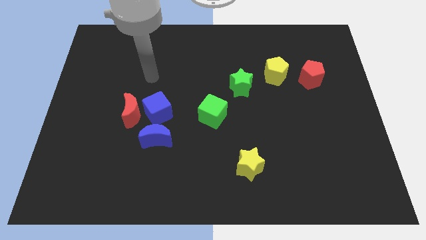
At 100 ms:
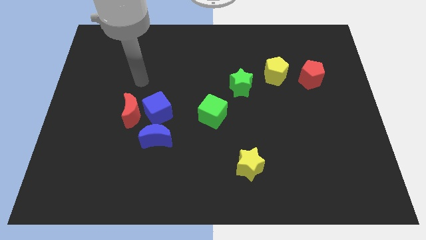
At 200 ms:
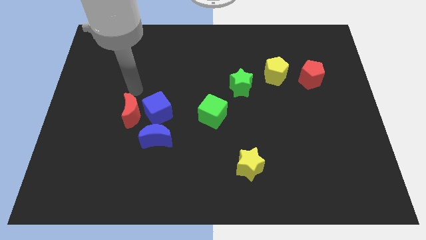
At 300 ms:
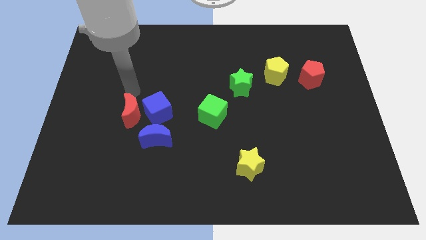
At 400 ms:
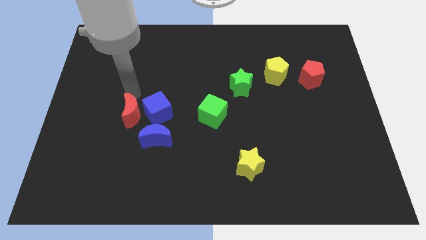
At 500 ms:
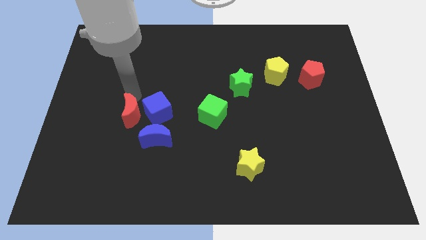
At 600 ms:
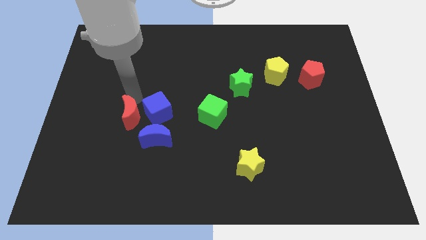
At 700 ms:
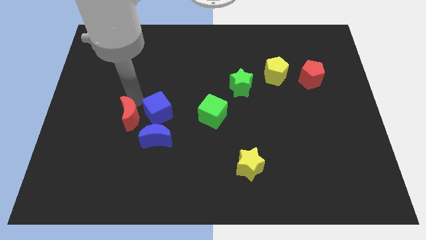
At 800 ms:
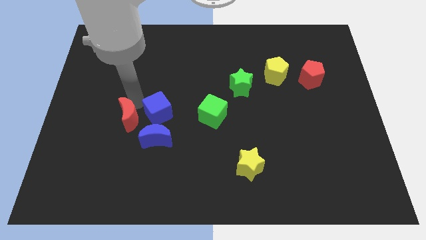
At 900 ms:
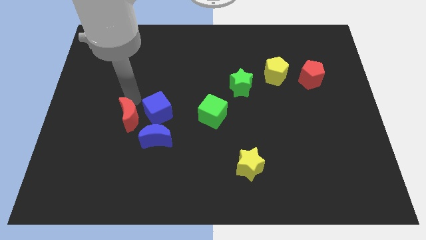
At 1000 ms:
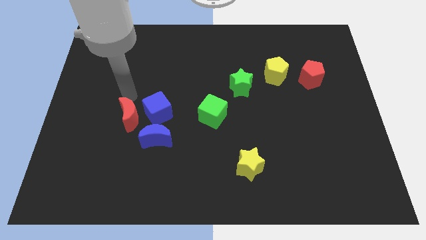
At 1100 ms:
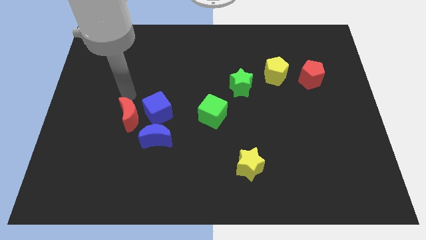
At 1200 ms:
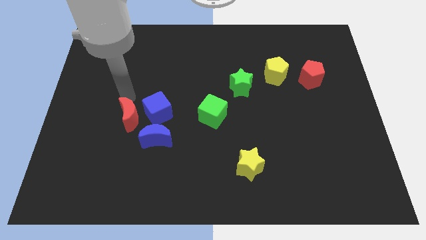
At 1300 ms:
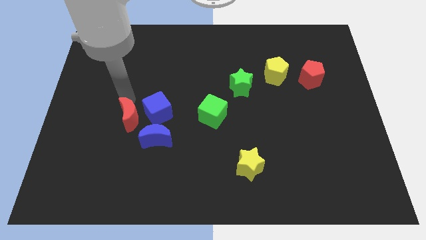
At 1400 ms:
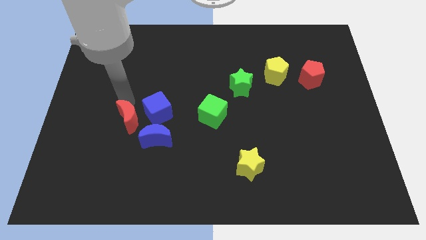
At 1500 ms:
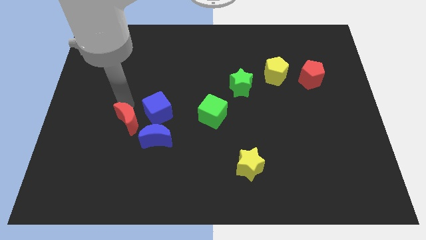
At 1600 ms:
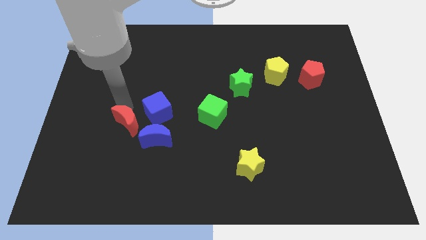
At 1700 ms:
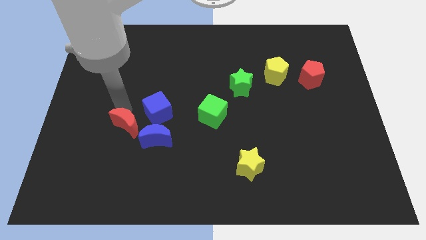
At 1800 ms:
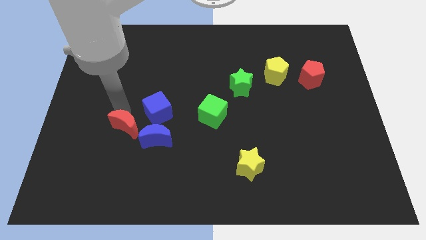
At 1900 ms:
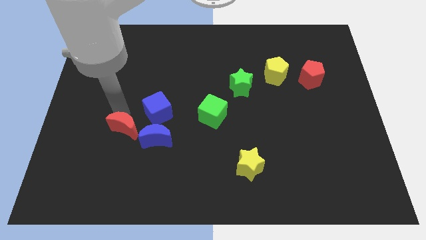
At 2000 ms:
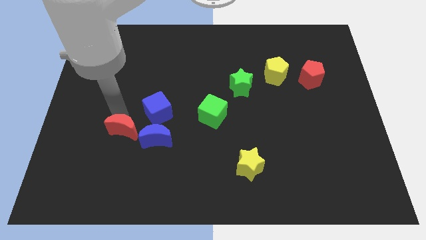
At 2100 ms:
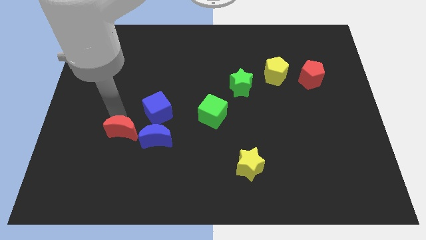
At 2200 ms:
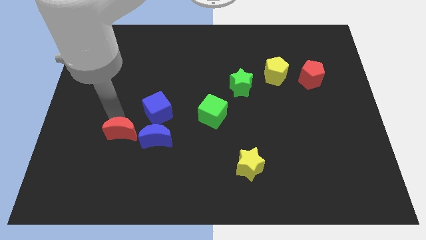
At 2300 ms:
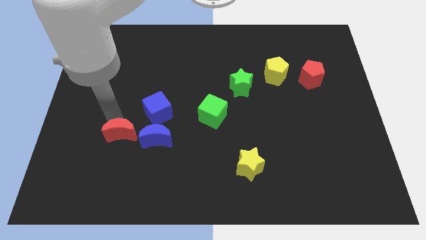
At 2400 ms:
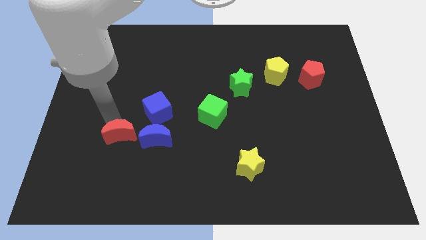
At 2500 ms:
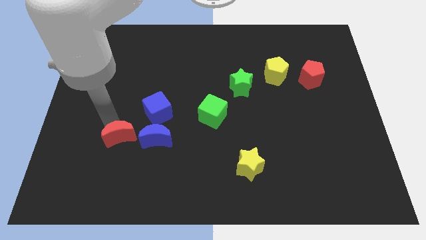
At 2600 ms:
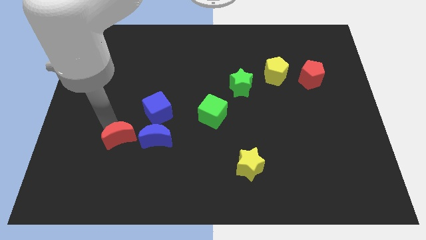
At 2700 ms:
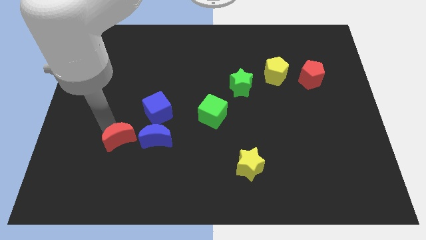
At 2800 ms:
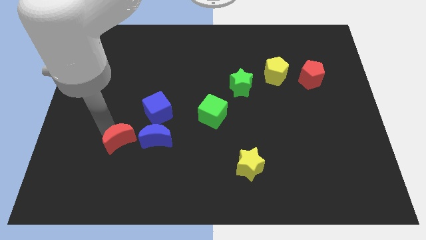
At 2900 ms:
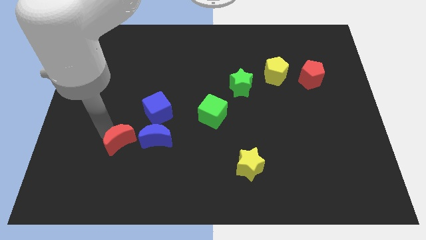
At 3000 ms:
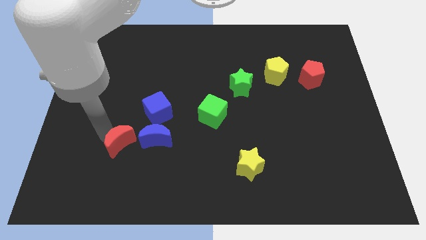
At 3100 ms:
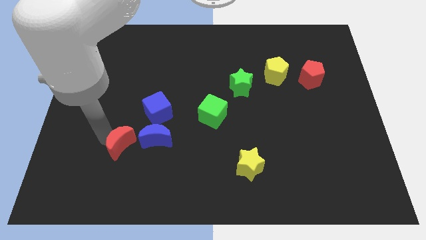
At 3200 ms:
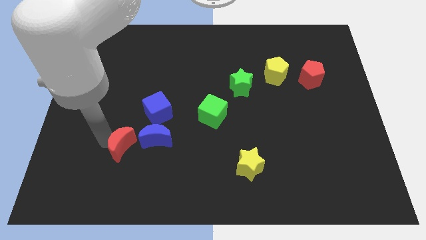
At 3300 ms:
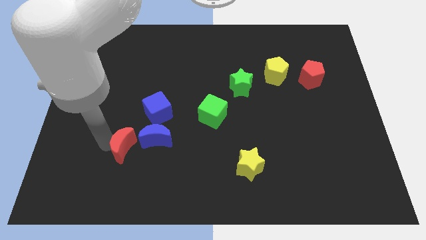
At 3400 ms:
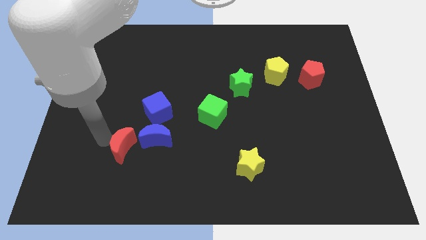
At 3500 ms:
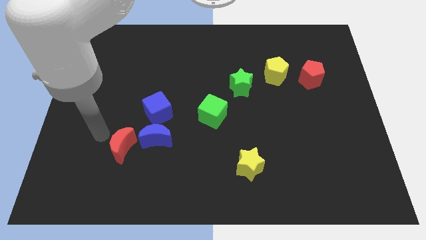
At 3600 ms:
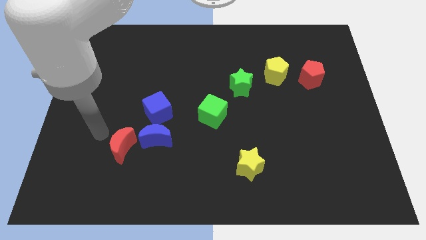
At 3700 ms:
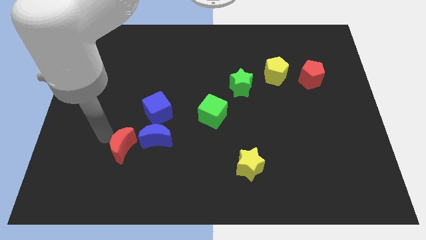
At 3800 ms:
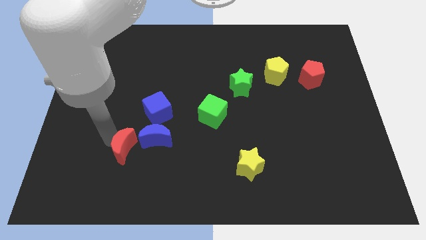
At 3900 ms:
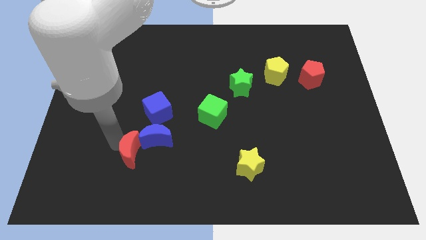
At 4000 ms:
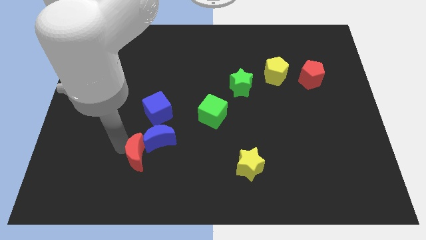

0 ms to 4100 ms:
slide the red moon diagonally downwards and right a little

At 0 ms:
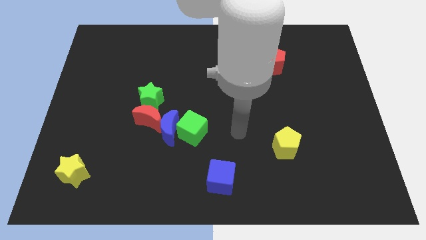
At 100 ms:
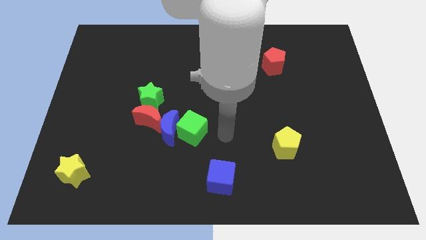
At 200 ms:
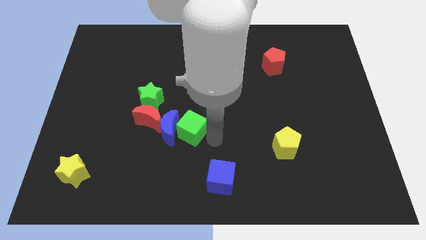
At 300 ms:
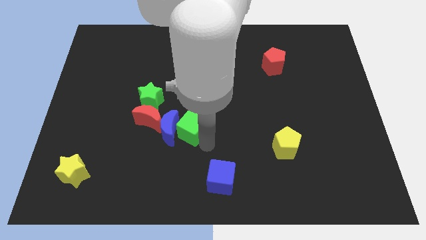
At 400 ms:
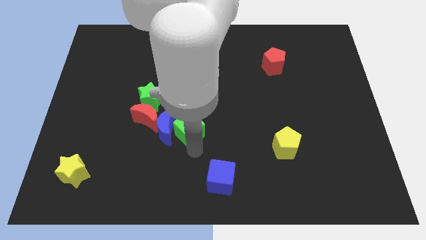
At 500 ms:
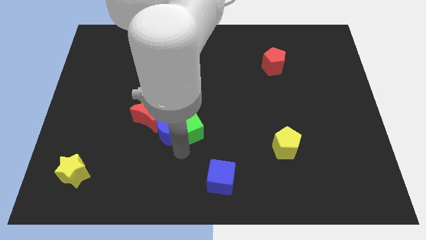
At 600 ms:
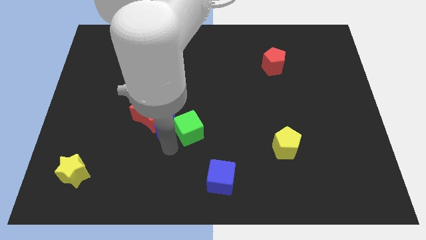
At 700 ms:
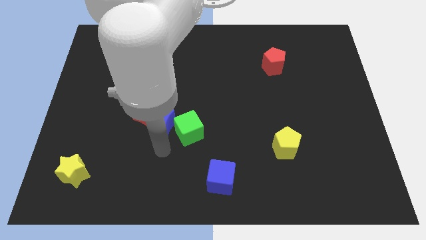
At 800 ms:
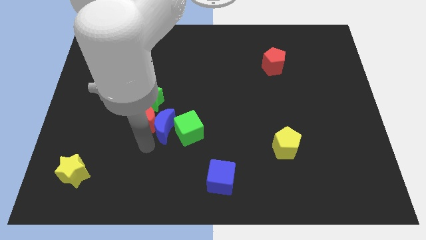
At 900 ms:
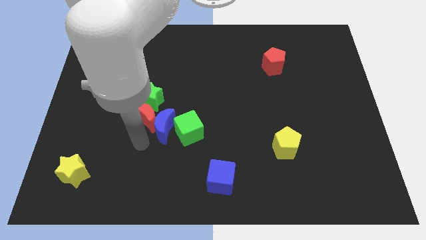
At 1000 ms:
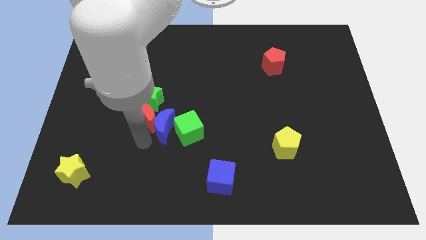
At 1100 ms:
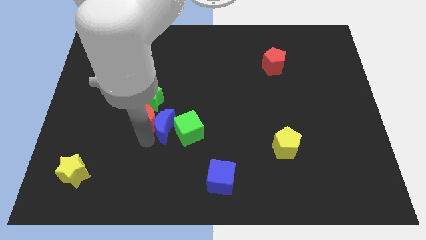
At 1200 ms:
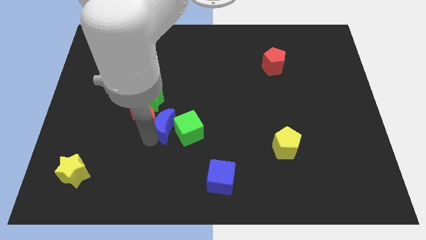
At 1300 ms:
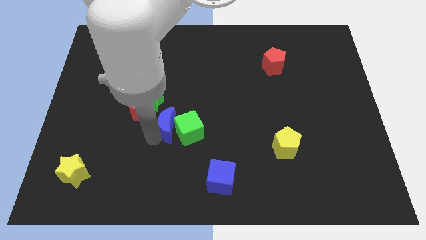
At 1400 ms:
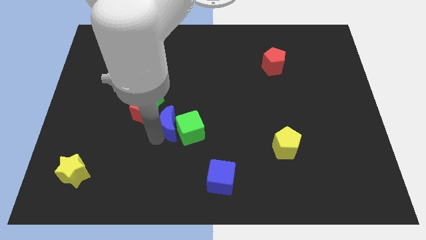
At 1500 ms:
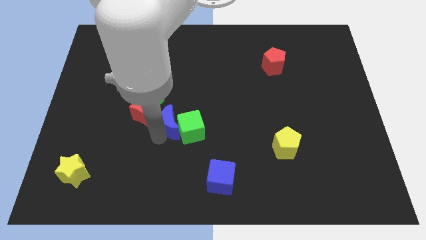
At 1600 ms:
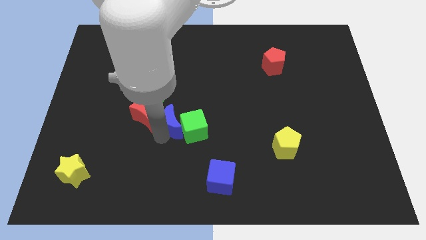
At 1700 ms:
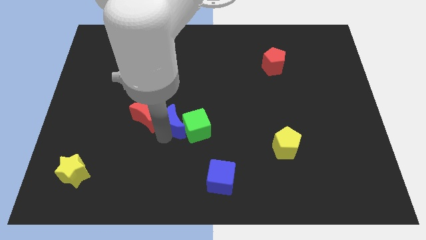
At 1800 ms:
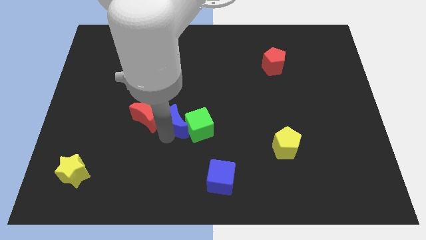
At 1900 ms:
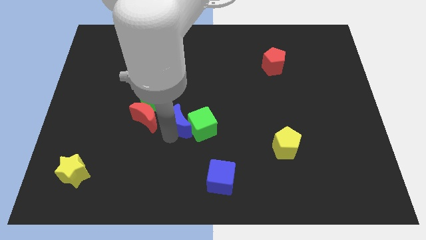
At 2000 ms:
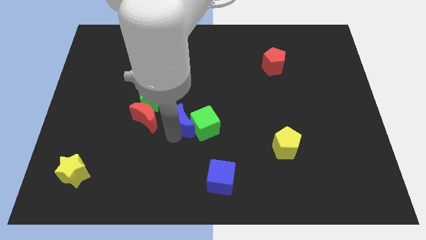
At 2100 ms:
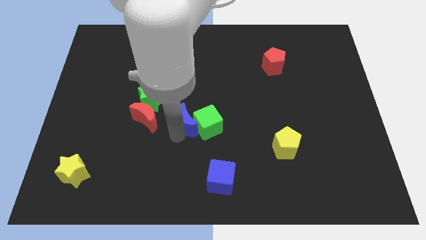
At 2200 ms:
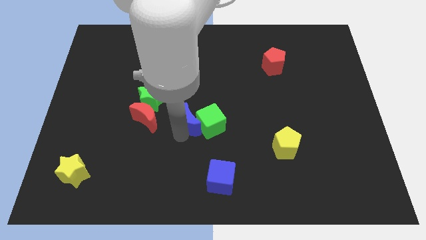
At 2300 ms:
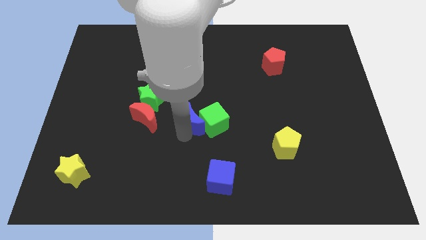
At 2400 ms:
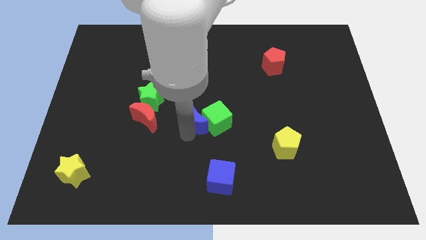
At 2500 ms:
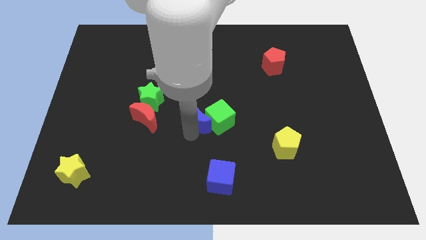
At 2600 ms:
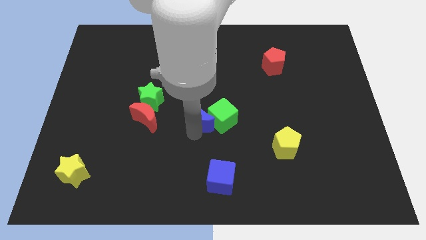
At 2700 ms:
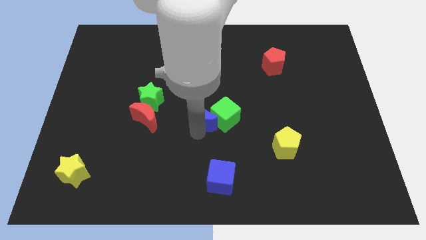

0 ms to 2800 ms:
slide the blue moon diagonally upwards and right somewhat

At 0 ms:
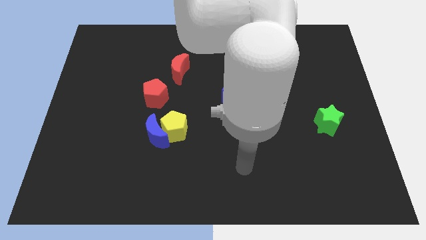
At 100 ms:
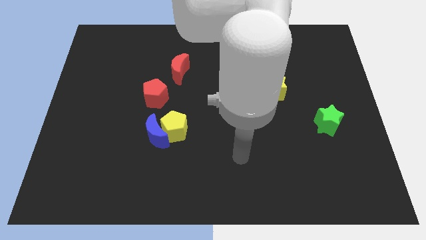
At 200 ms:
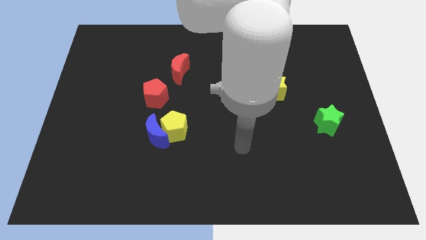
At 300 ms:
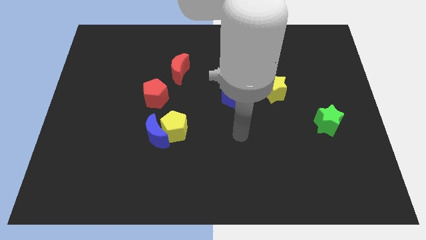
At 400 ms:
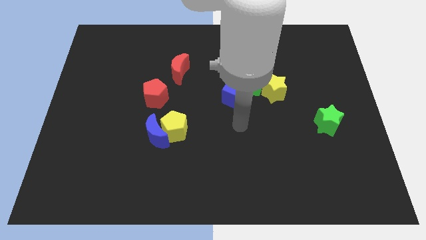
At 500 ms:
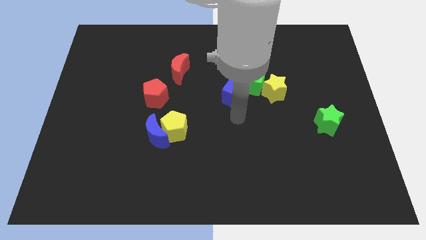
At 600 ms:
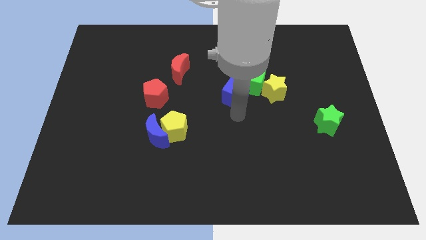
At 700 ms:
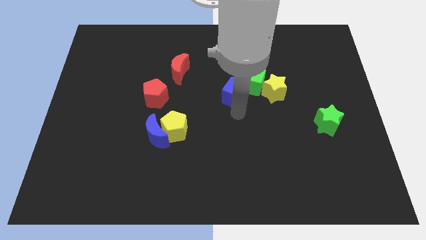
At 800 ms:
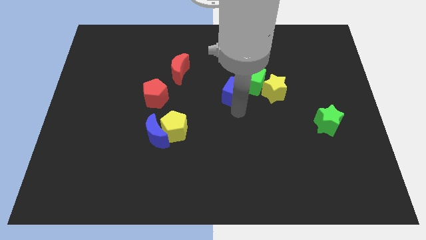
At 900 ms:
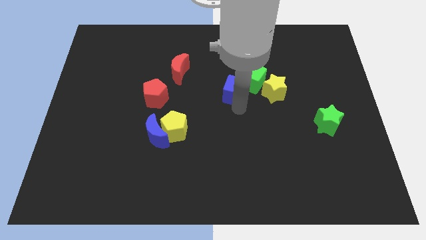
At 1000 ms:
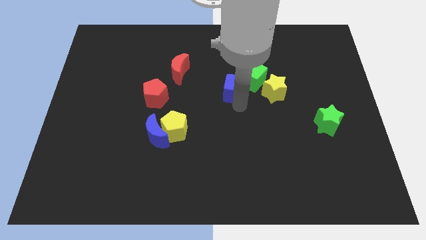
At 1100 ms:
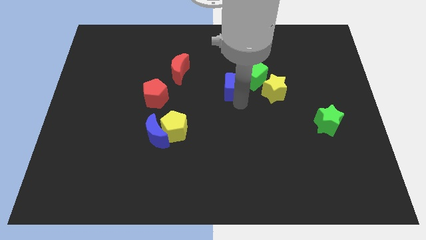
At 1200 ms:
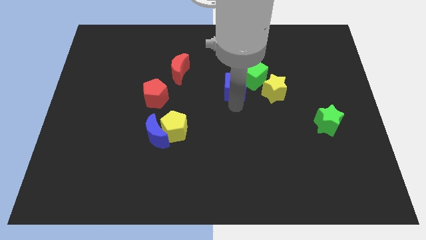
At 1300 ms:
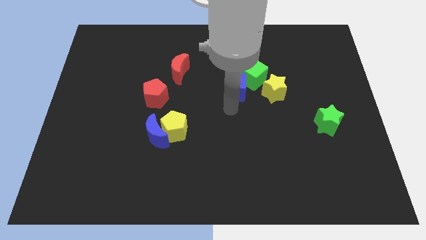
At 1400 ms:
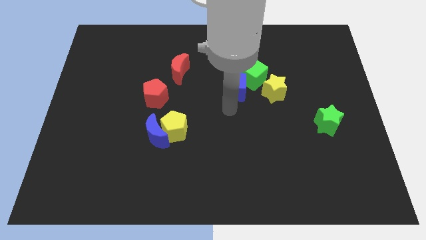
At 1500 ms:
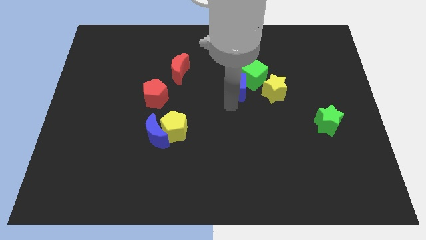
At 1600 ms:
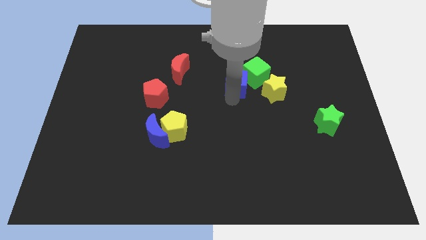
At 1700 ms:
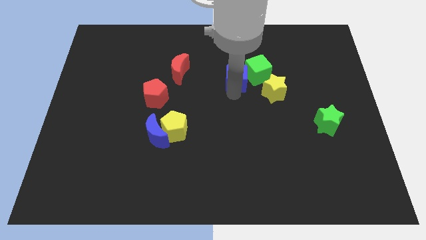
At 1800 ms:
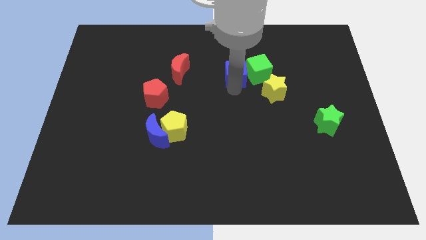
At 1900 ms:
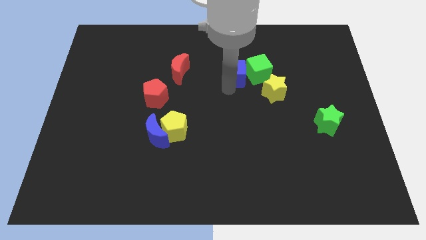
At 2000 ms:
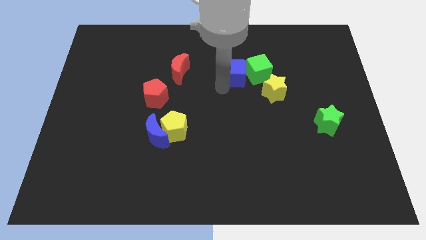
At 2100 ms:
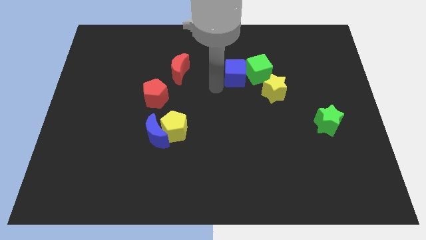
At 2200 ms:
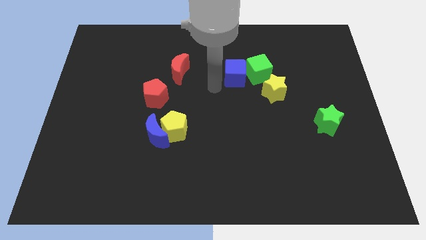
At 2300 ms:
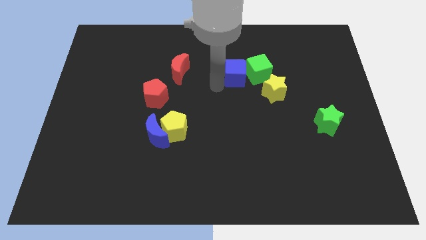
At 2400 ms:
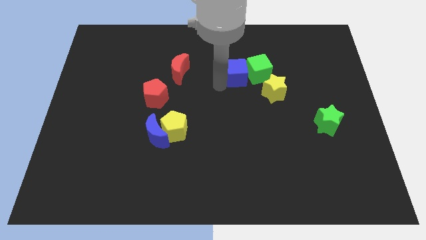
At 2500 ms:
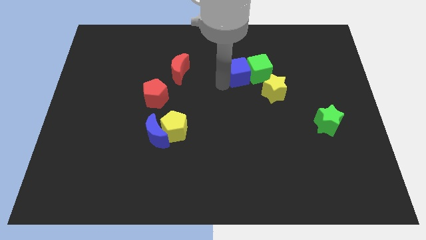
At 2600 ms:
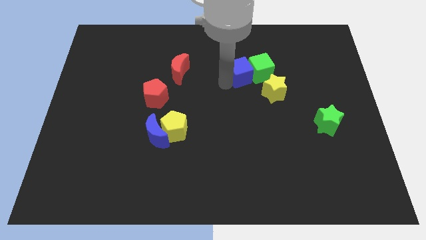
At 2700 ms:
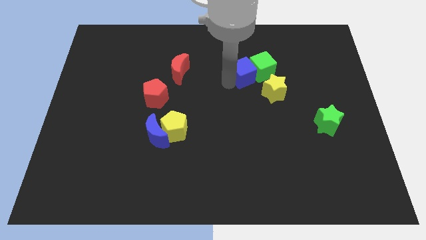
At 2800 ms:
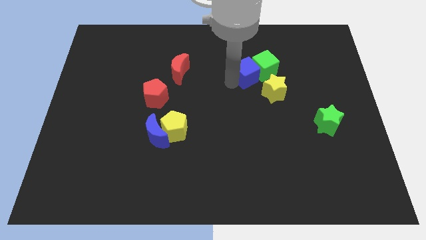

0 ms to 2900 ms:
push the blue cube diagonally up and right a little
